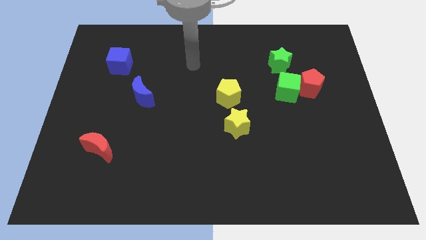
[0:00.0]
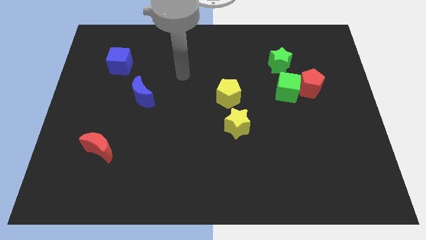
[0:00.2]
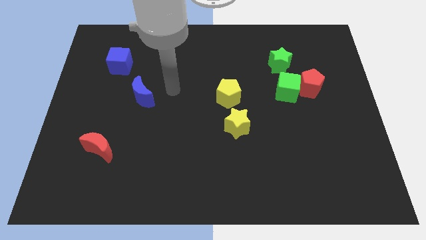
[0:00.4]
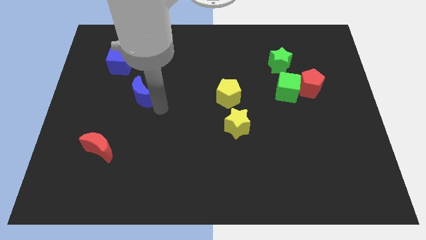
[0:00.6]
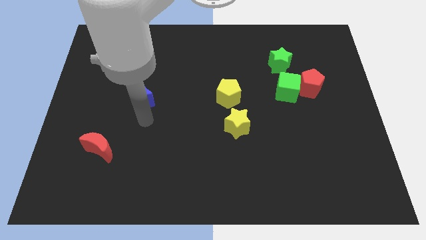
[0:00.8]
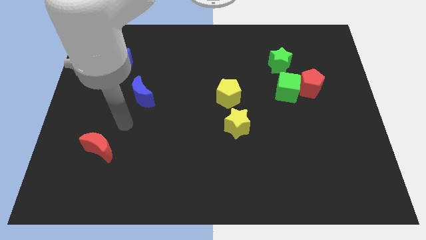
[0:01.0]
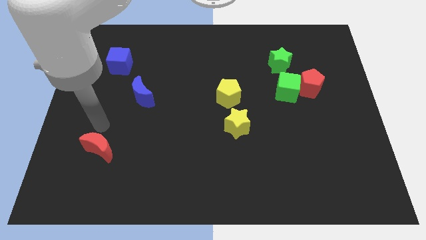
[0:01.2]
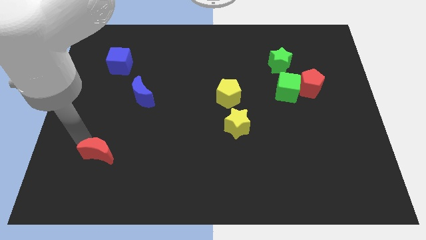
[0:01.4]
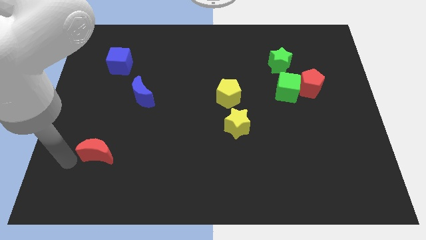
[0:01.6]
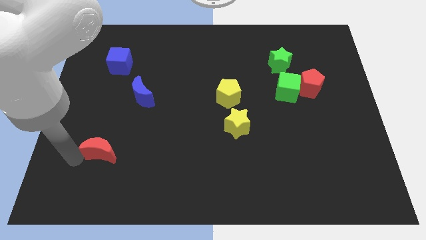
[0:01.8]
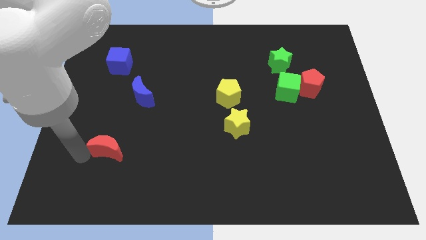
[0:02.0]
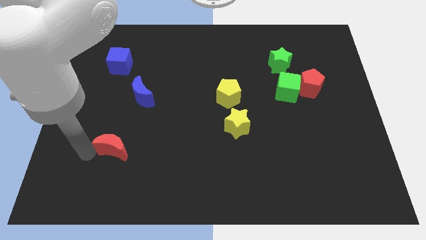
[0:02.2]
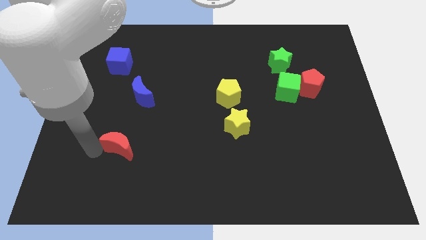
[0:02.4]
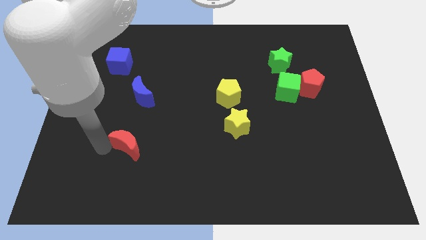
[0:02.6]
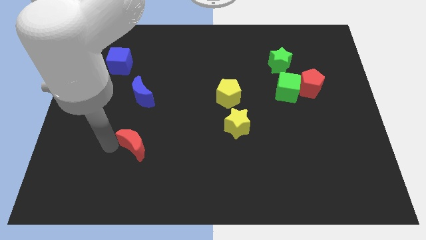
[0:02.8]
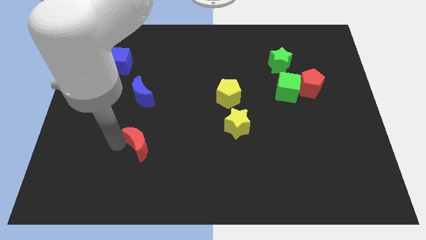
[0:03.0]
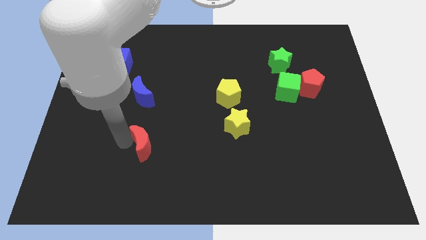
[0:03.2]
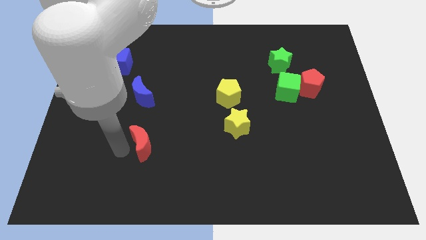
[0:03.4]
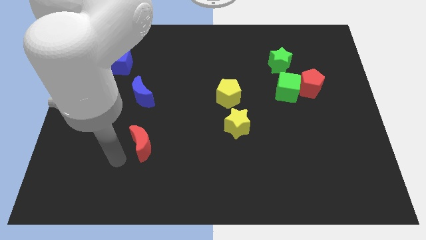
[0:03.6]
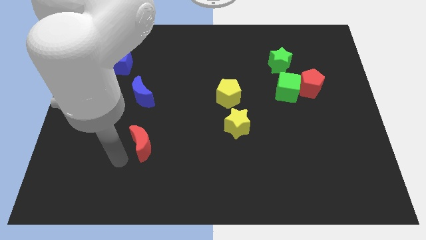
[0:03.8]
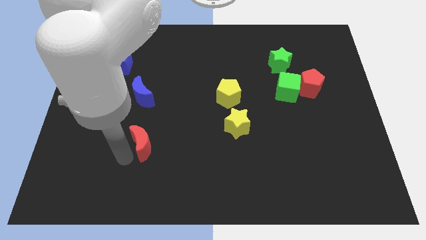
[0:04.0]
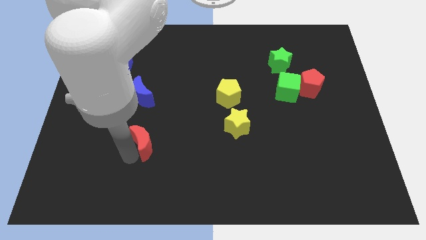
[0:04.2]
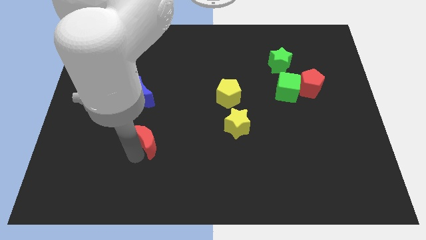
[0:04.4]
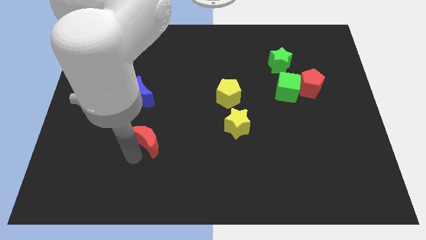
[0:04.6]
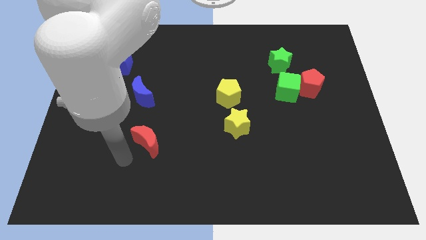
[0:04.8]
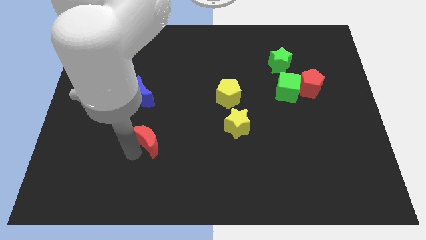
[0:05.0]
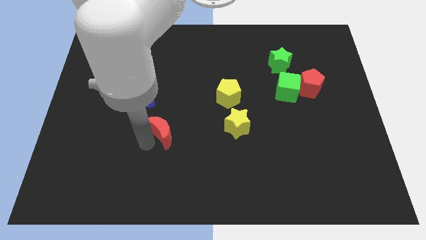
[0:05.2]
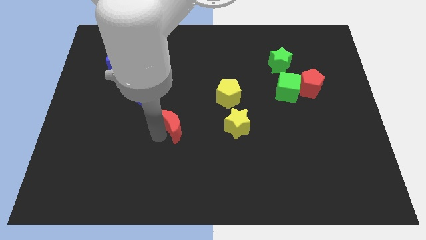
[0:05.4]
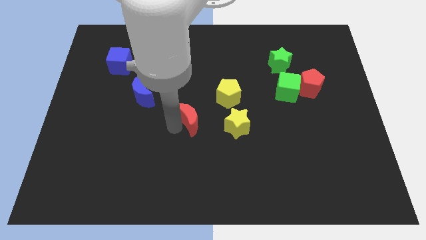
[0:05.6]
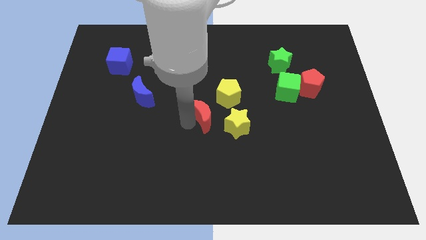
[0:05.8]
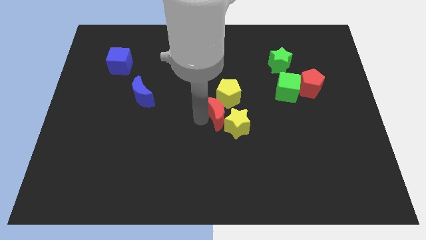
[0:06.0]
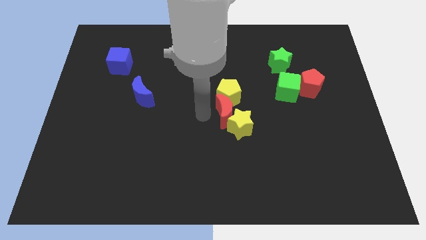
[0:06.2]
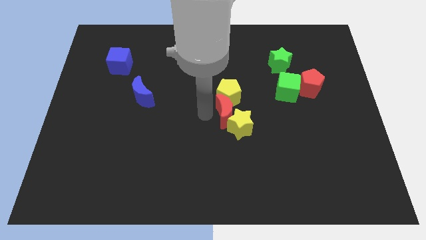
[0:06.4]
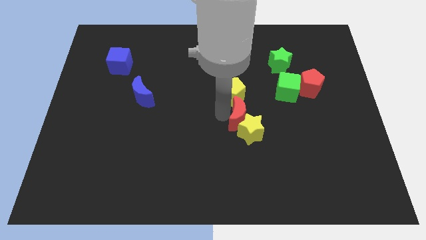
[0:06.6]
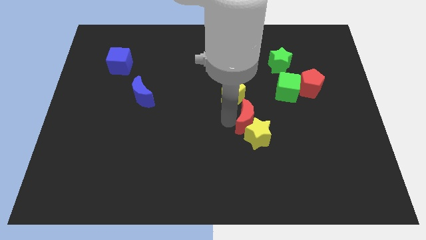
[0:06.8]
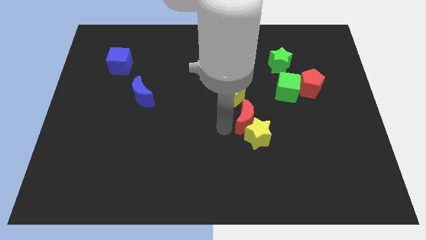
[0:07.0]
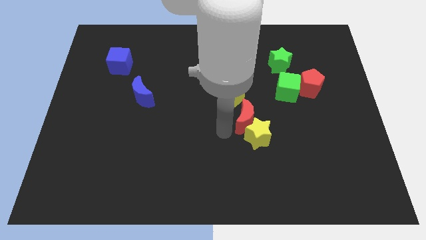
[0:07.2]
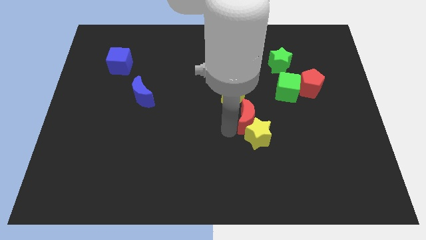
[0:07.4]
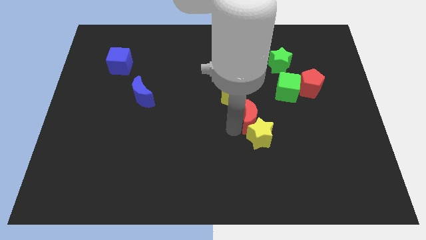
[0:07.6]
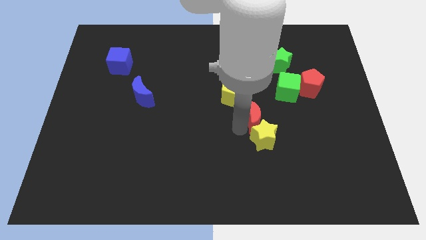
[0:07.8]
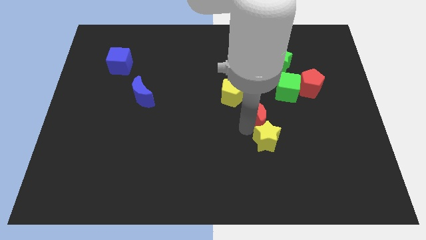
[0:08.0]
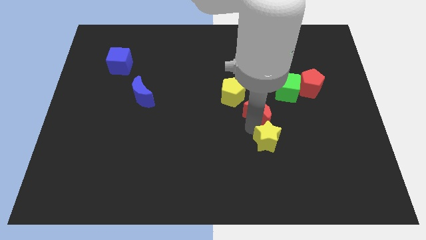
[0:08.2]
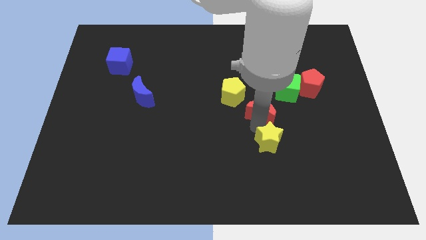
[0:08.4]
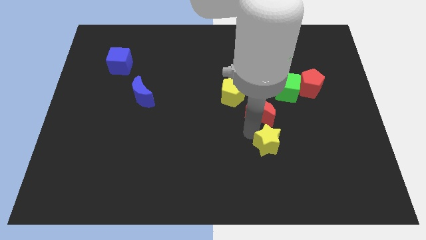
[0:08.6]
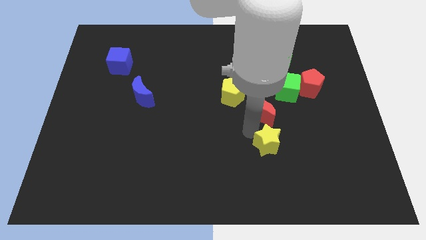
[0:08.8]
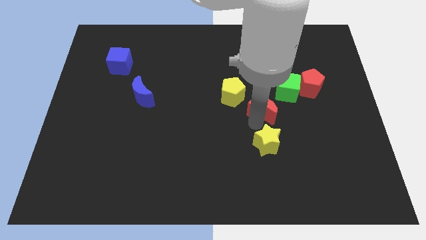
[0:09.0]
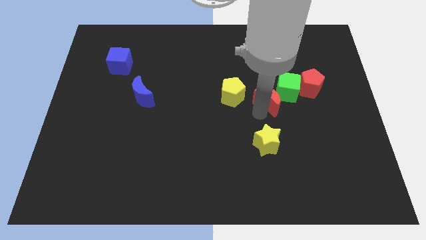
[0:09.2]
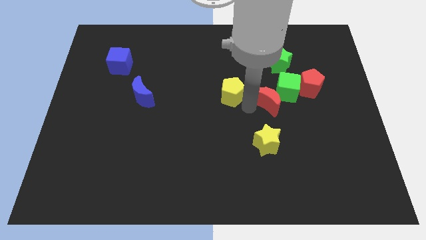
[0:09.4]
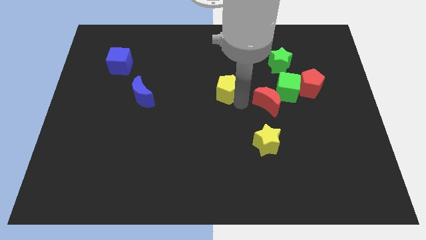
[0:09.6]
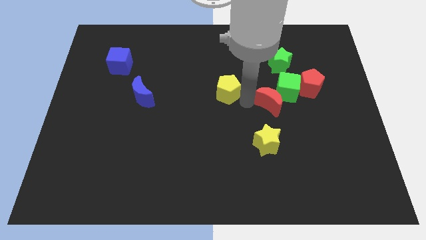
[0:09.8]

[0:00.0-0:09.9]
slide the red moon to the bottom left side of the red pentagon

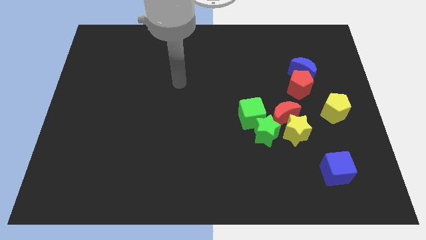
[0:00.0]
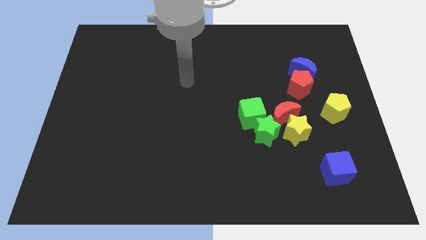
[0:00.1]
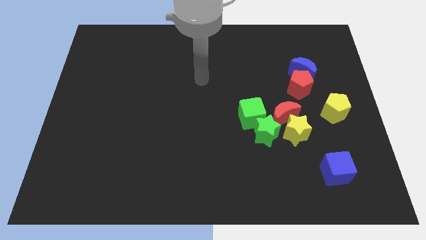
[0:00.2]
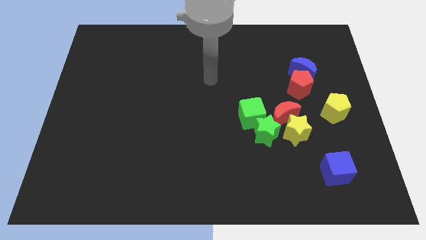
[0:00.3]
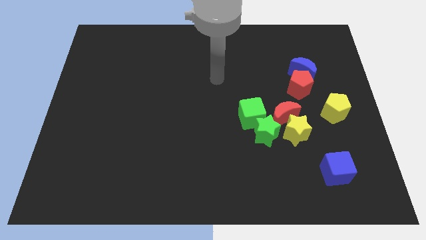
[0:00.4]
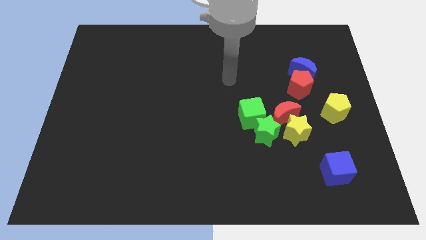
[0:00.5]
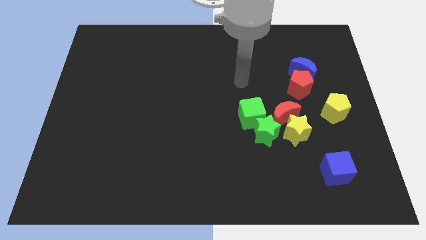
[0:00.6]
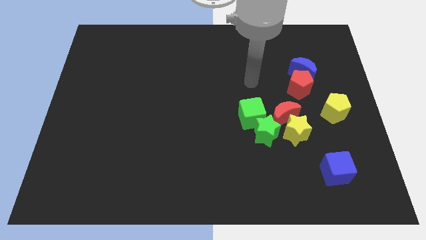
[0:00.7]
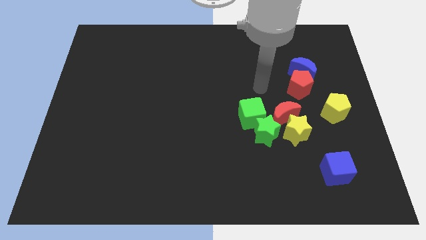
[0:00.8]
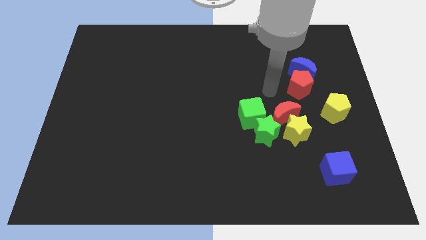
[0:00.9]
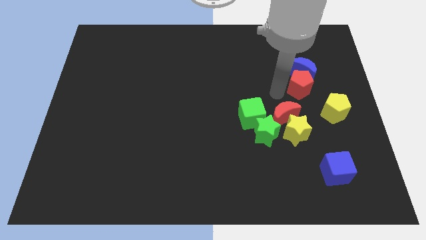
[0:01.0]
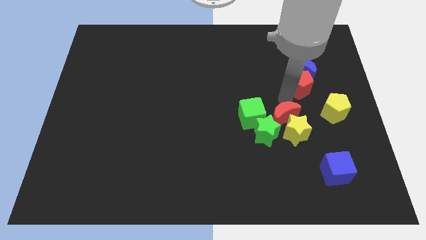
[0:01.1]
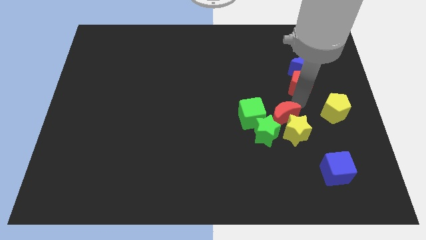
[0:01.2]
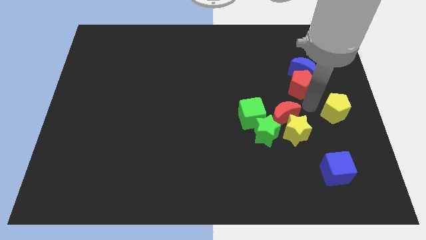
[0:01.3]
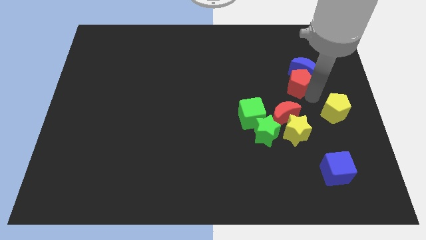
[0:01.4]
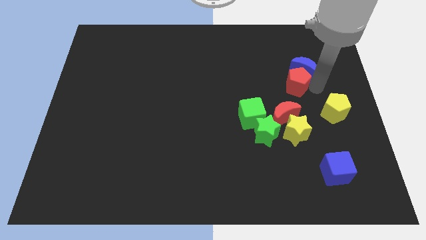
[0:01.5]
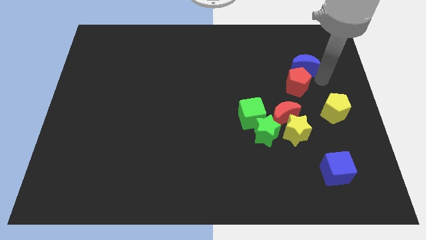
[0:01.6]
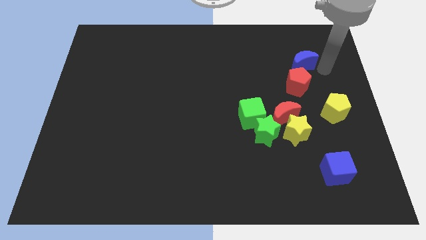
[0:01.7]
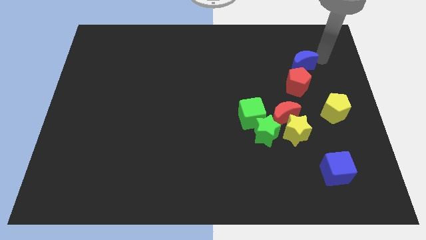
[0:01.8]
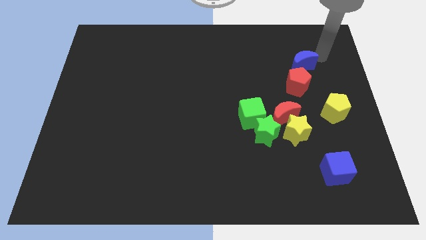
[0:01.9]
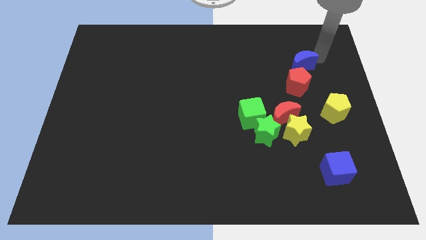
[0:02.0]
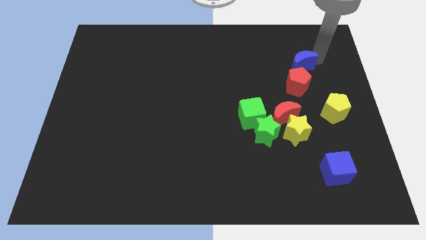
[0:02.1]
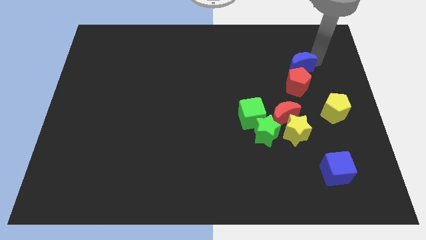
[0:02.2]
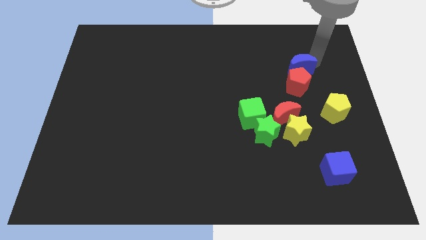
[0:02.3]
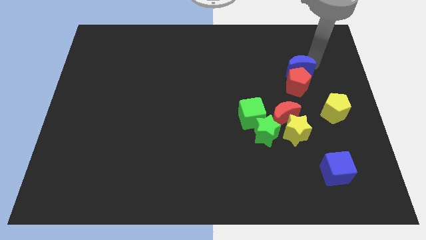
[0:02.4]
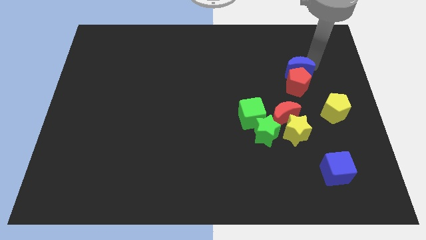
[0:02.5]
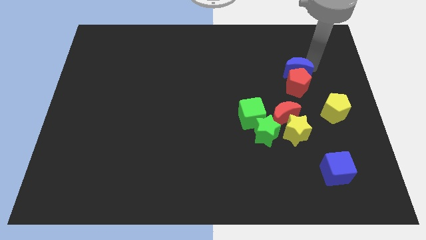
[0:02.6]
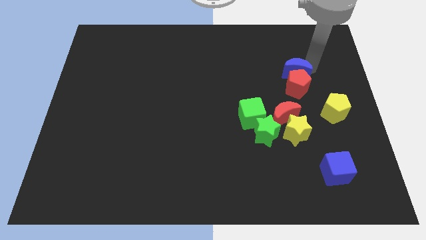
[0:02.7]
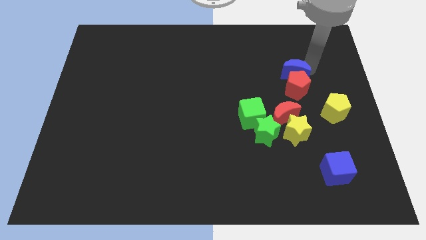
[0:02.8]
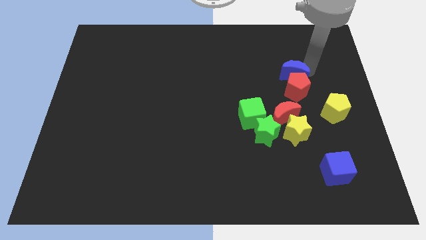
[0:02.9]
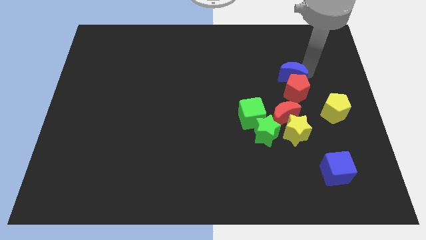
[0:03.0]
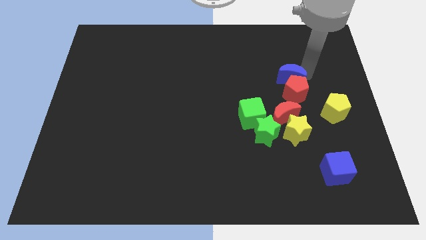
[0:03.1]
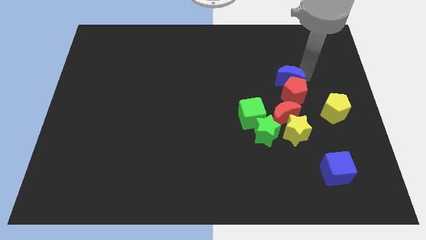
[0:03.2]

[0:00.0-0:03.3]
move the blue moon to the top of the yellow star
